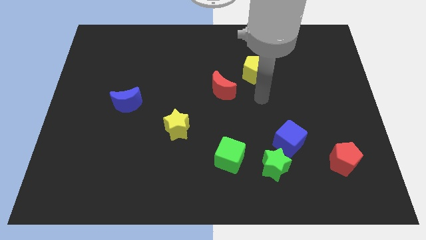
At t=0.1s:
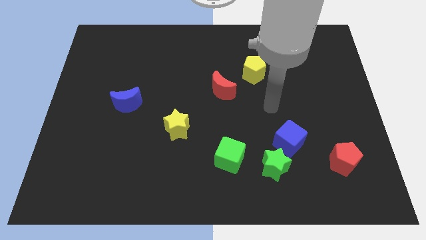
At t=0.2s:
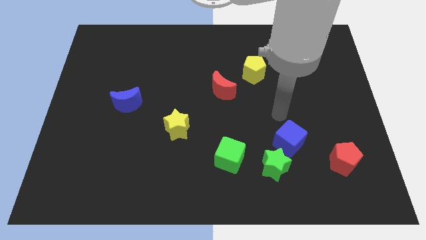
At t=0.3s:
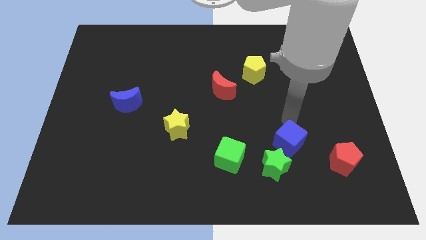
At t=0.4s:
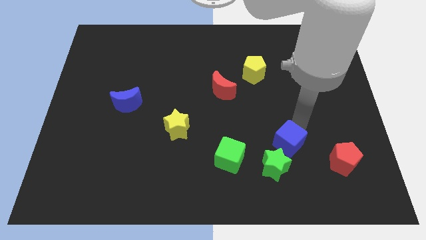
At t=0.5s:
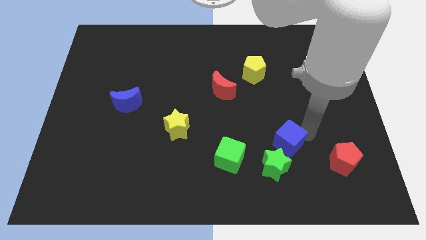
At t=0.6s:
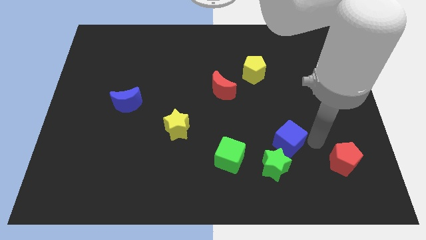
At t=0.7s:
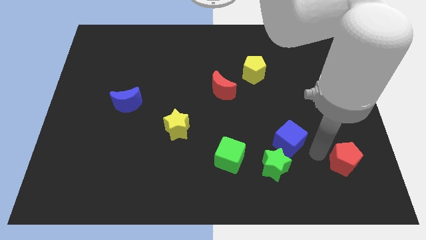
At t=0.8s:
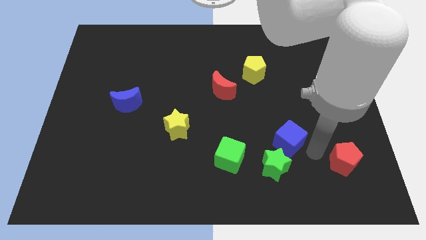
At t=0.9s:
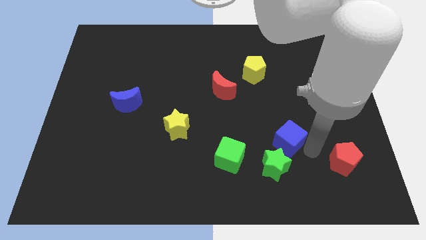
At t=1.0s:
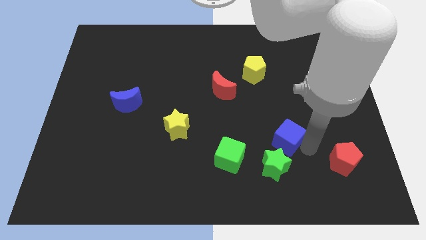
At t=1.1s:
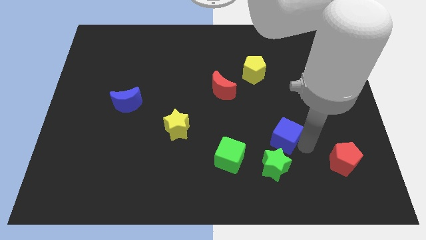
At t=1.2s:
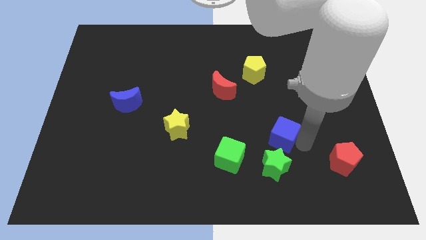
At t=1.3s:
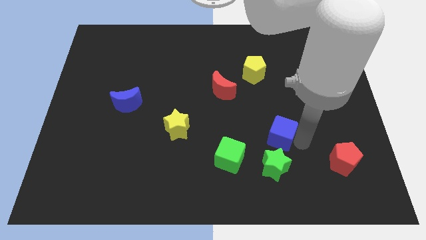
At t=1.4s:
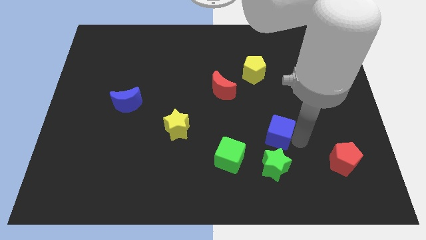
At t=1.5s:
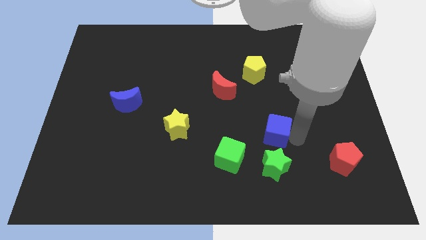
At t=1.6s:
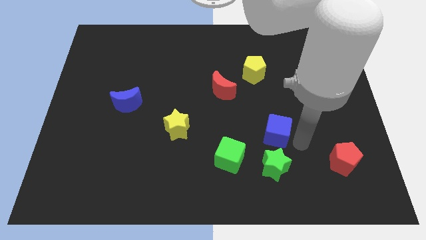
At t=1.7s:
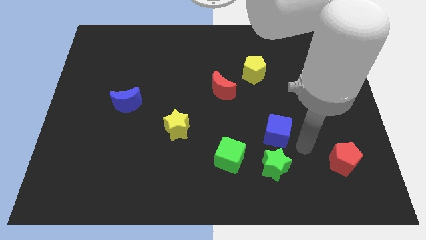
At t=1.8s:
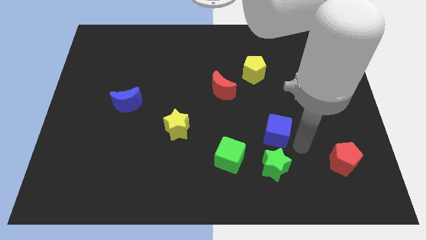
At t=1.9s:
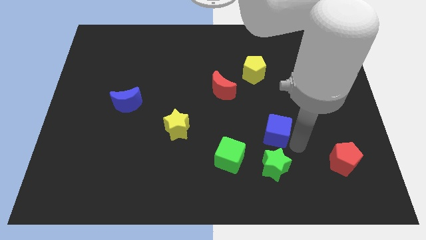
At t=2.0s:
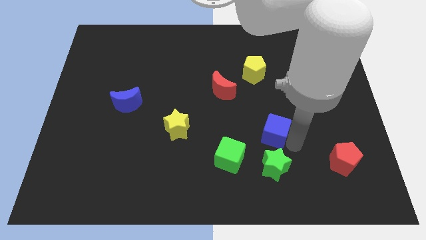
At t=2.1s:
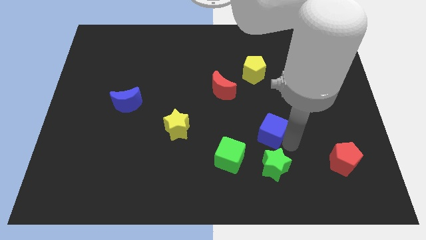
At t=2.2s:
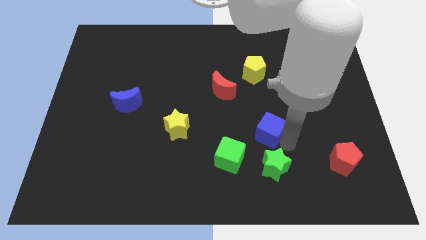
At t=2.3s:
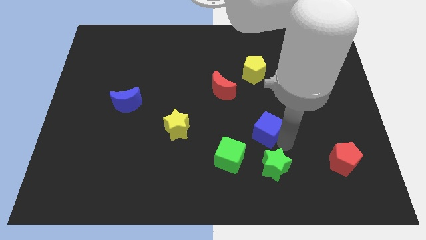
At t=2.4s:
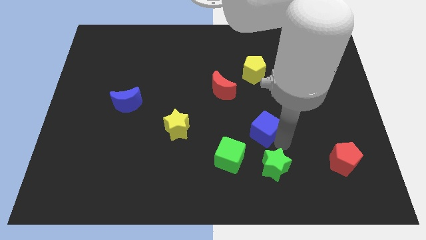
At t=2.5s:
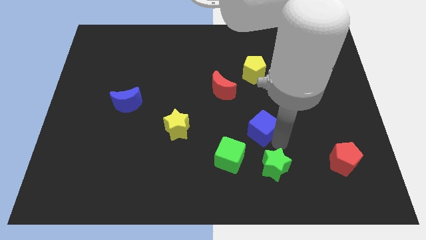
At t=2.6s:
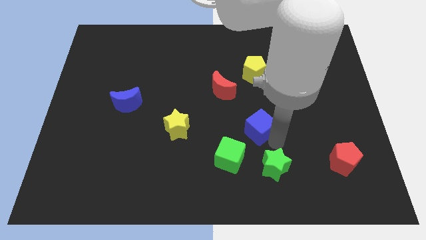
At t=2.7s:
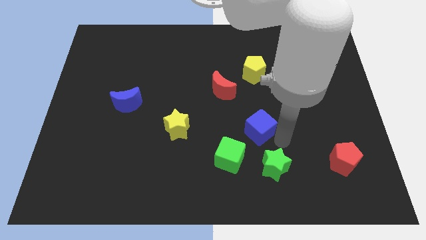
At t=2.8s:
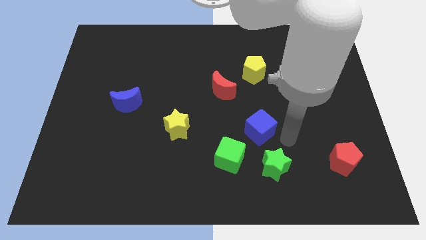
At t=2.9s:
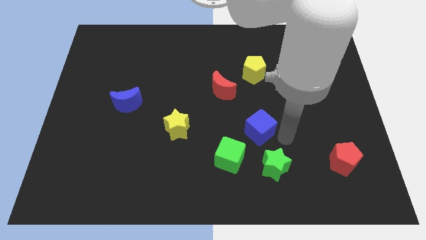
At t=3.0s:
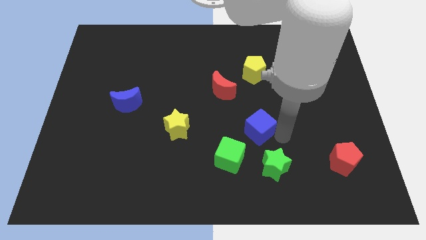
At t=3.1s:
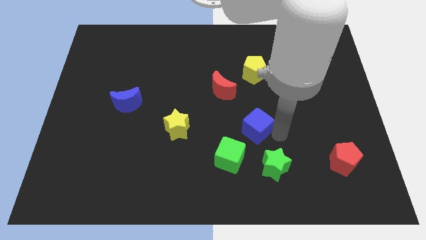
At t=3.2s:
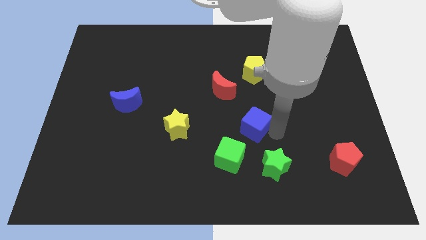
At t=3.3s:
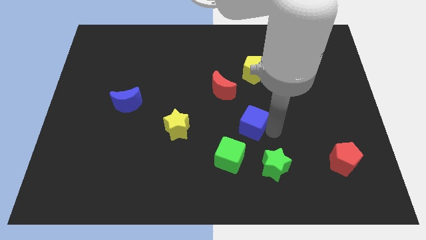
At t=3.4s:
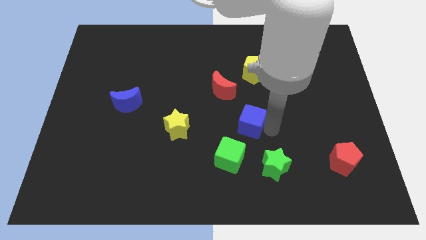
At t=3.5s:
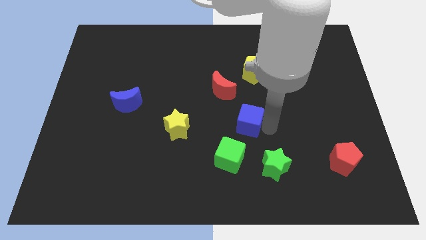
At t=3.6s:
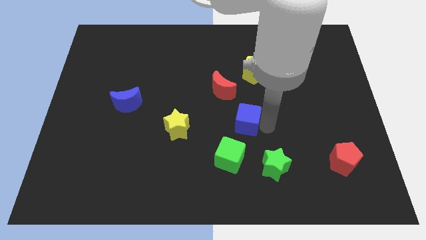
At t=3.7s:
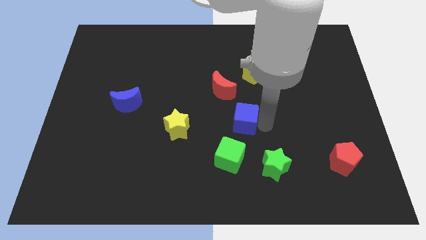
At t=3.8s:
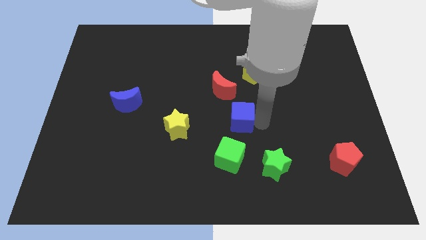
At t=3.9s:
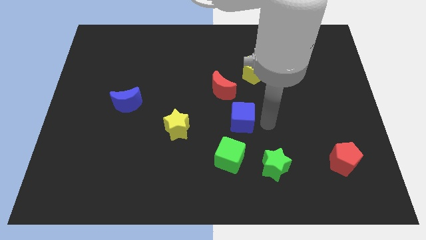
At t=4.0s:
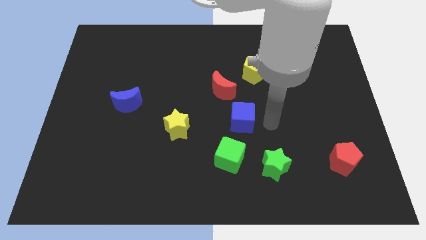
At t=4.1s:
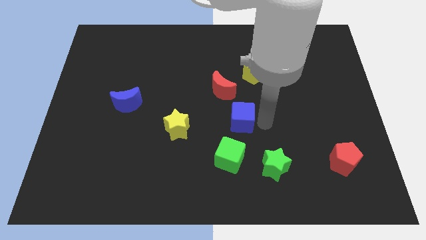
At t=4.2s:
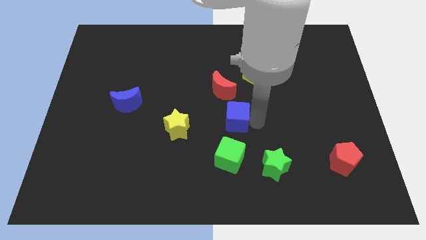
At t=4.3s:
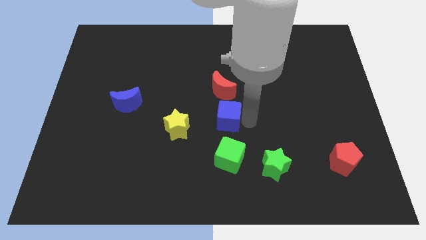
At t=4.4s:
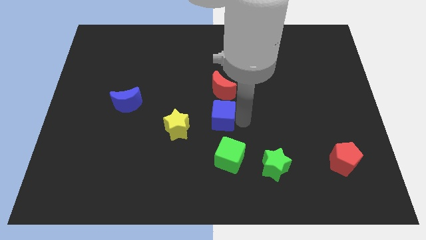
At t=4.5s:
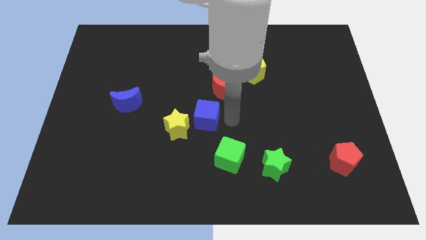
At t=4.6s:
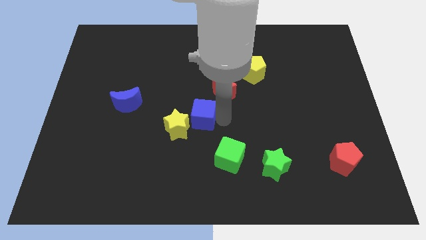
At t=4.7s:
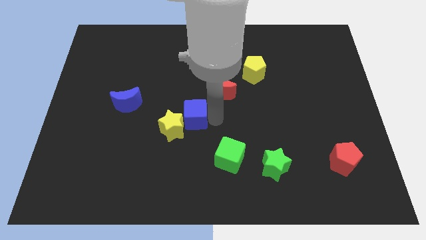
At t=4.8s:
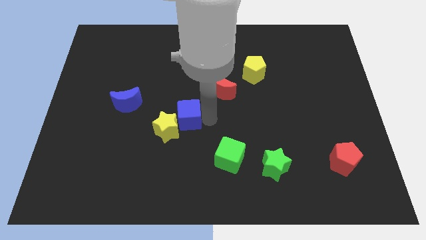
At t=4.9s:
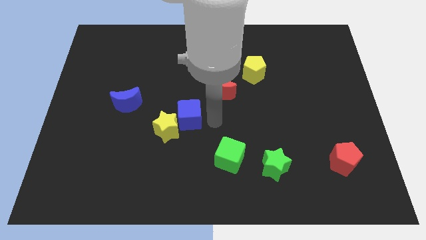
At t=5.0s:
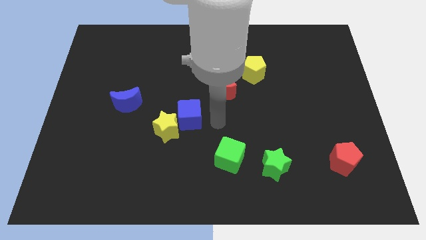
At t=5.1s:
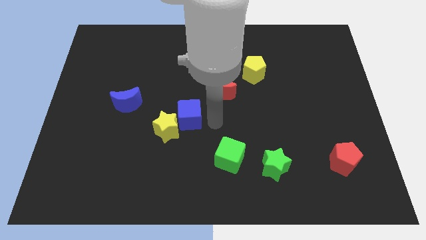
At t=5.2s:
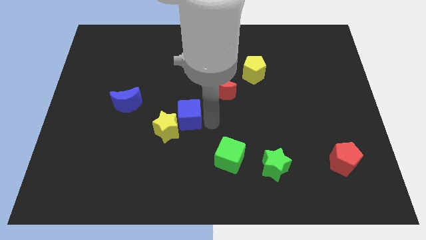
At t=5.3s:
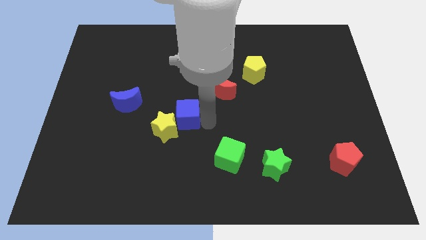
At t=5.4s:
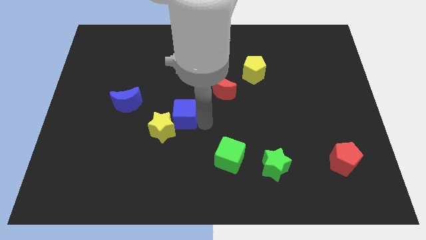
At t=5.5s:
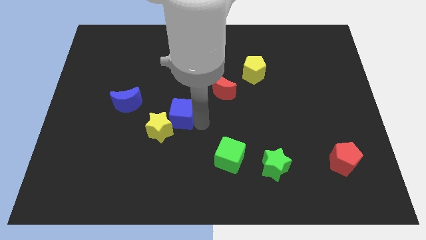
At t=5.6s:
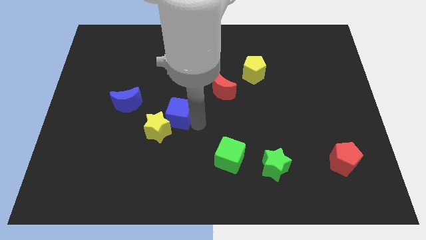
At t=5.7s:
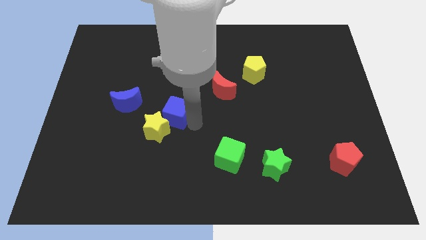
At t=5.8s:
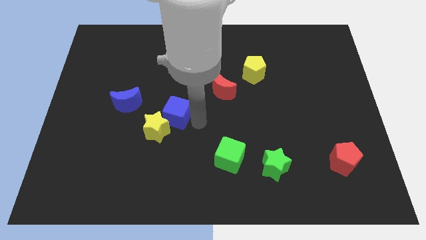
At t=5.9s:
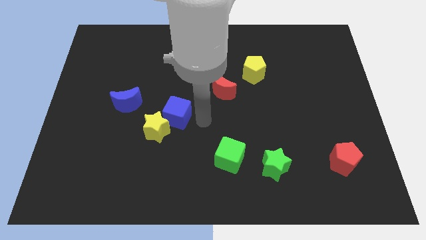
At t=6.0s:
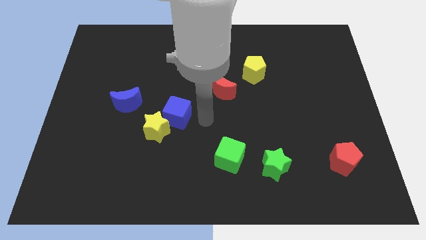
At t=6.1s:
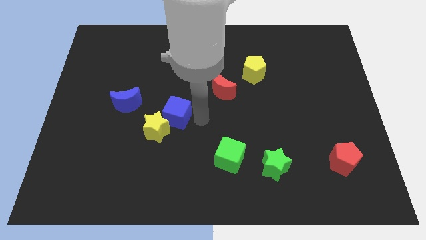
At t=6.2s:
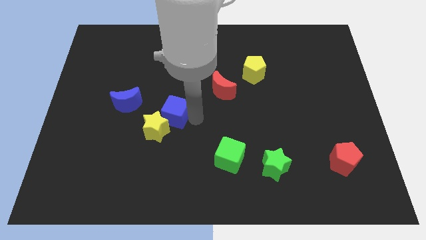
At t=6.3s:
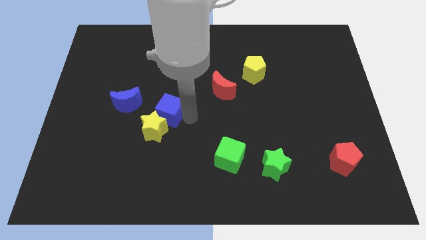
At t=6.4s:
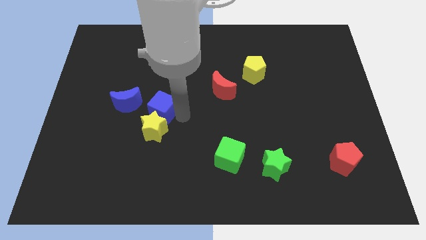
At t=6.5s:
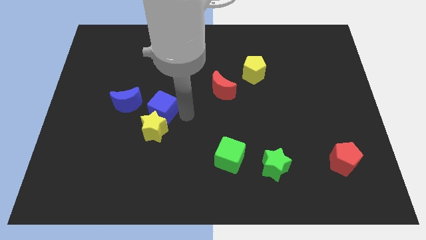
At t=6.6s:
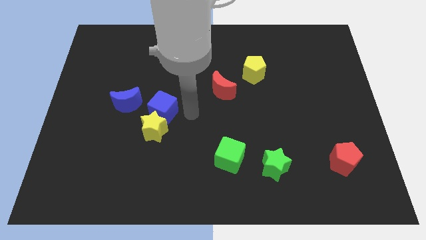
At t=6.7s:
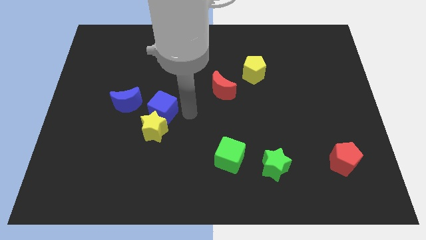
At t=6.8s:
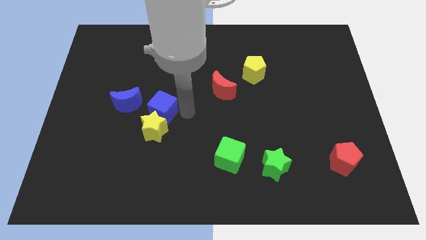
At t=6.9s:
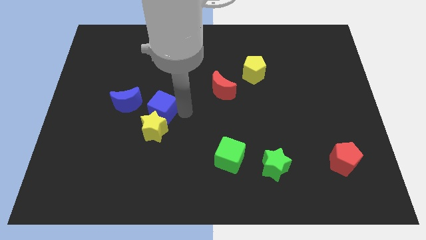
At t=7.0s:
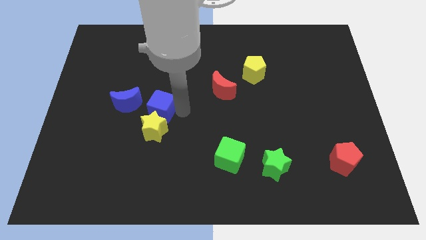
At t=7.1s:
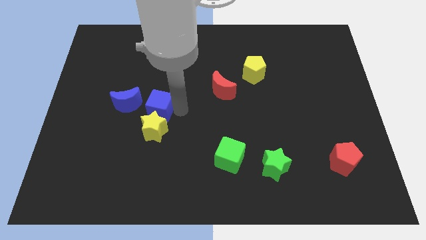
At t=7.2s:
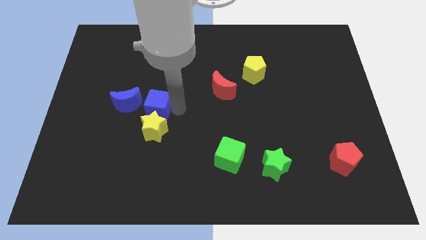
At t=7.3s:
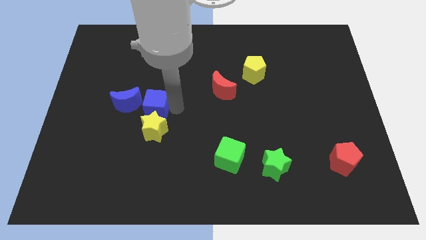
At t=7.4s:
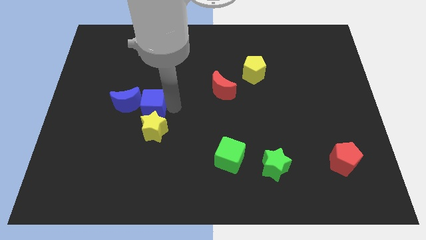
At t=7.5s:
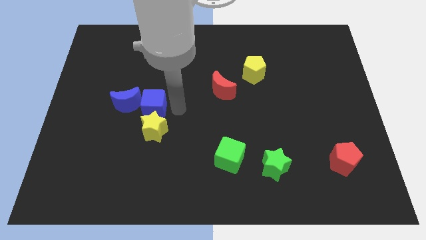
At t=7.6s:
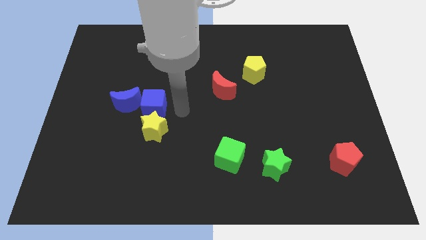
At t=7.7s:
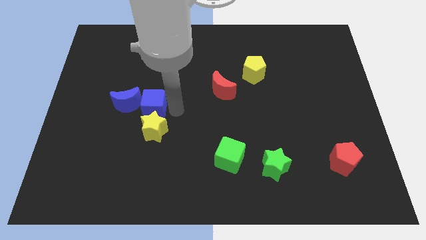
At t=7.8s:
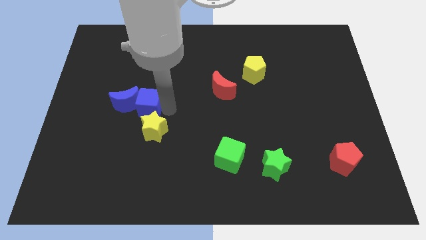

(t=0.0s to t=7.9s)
slide the blue cube next to the blue moon
